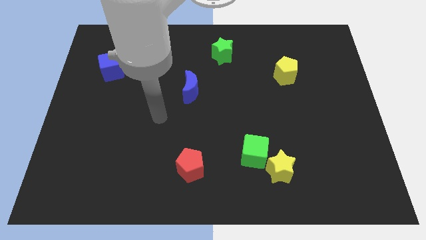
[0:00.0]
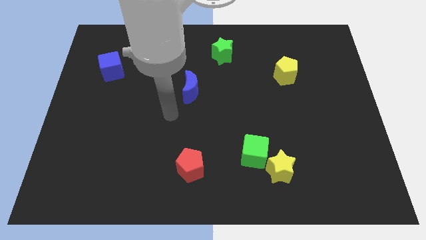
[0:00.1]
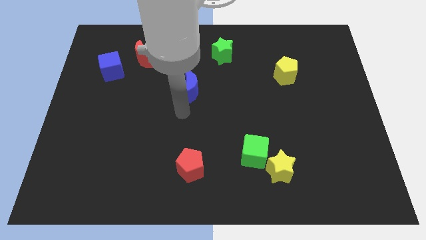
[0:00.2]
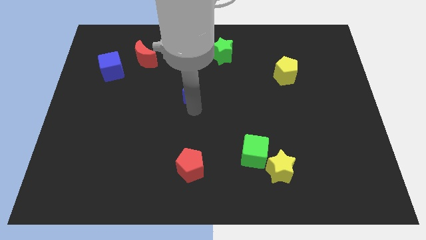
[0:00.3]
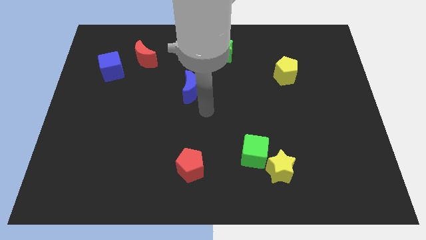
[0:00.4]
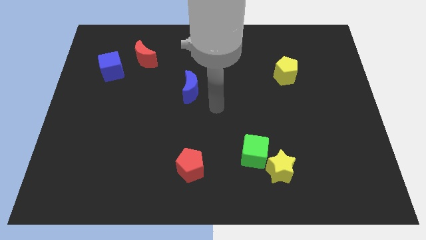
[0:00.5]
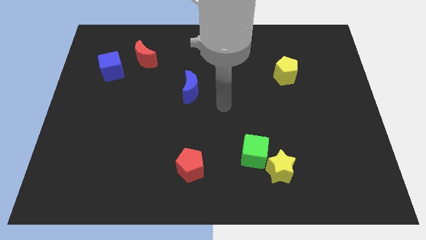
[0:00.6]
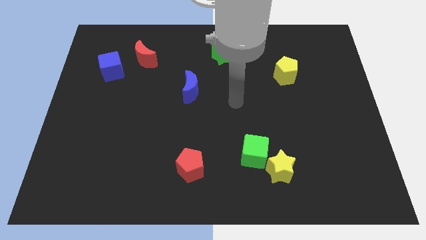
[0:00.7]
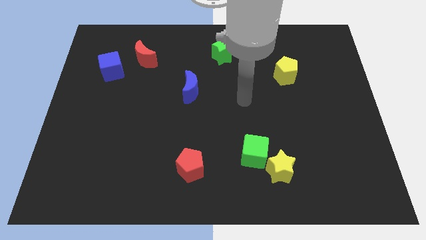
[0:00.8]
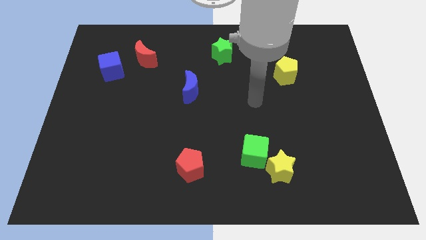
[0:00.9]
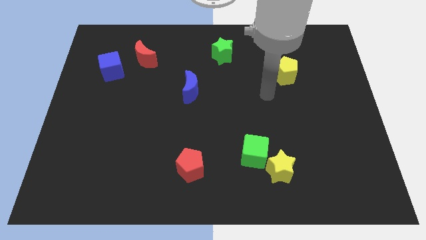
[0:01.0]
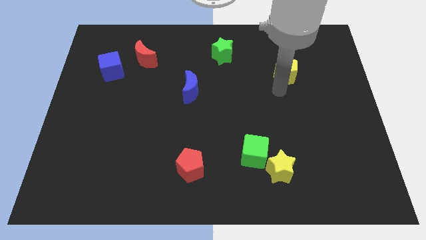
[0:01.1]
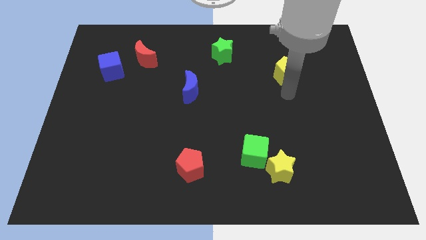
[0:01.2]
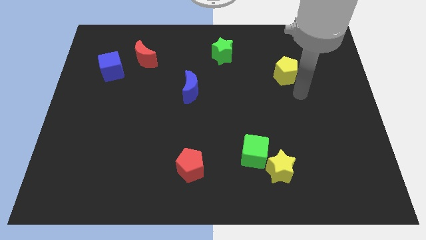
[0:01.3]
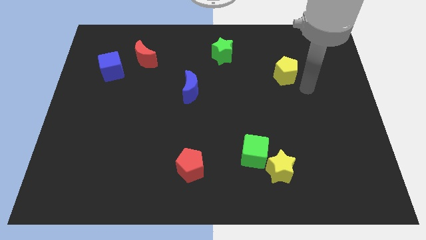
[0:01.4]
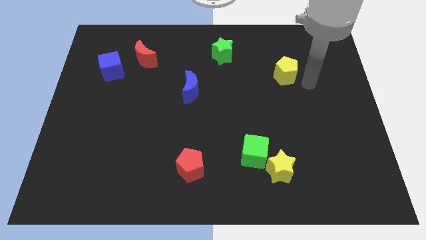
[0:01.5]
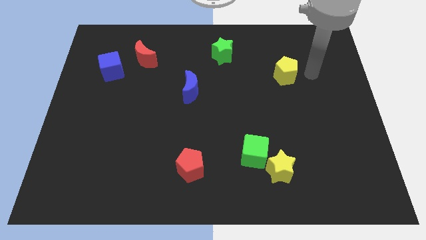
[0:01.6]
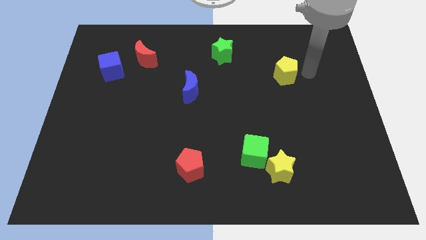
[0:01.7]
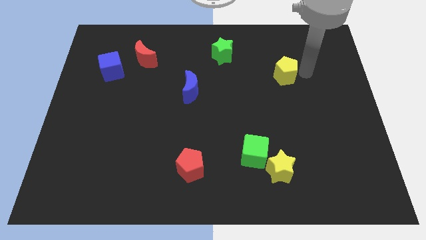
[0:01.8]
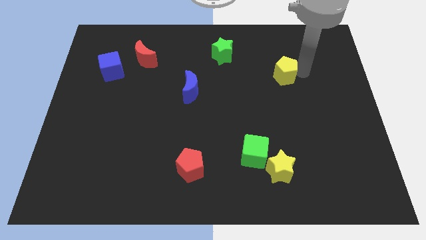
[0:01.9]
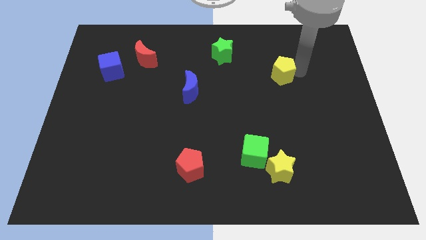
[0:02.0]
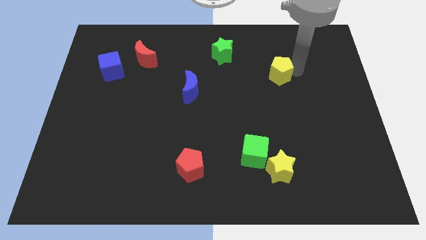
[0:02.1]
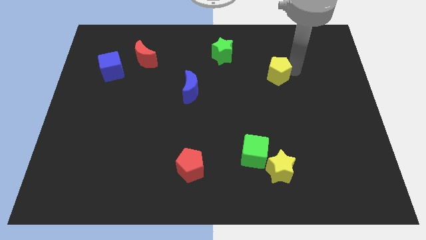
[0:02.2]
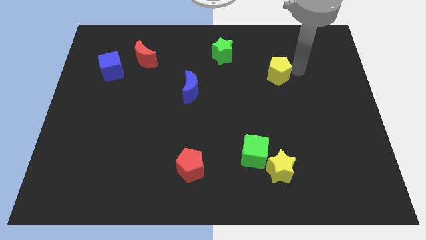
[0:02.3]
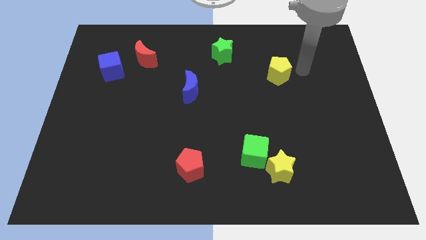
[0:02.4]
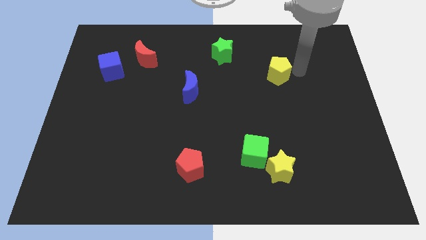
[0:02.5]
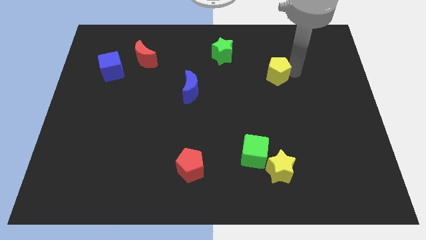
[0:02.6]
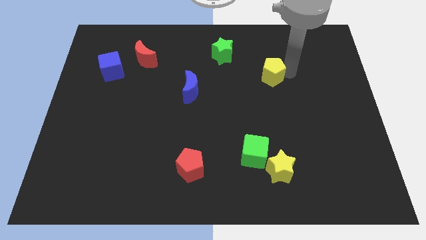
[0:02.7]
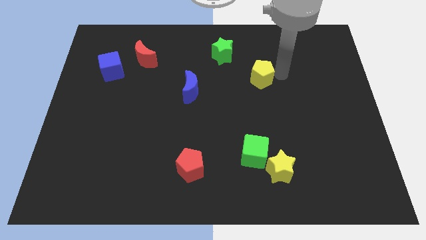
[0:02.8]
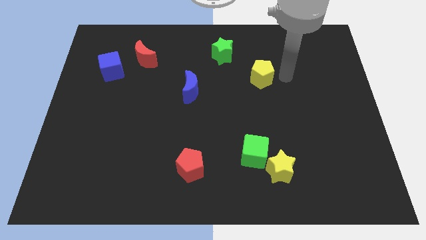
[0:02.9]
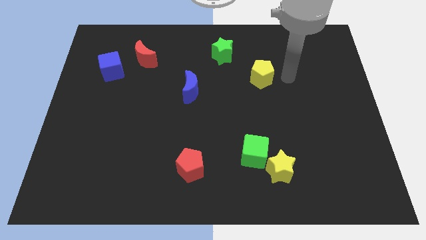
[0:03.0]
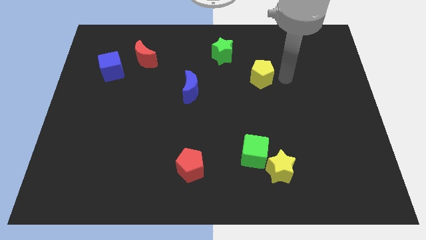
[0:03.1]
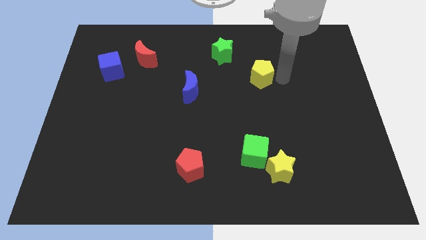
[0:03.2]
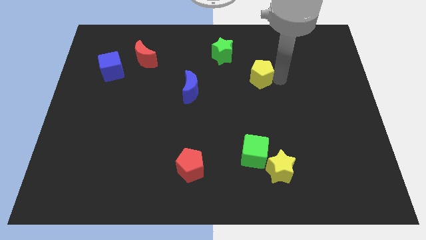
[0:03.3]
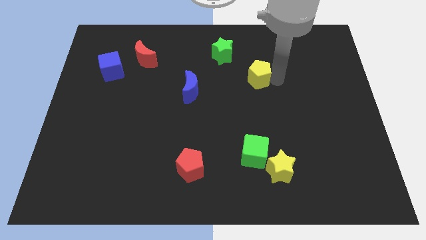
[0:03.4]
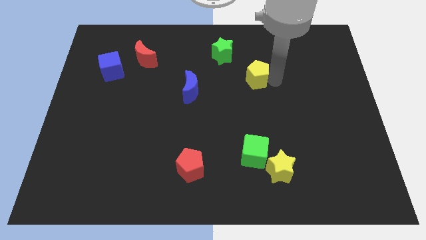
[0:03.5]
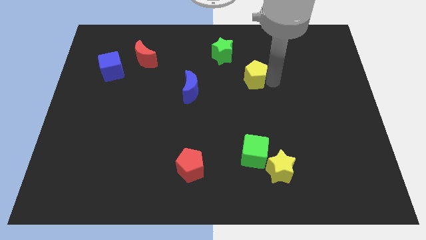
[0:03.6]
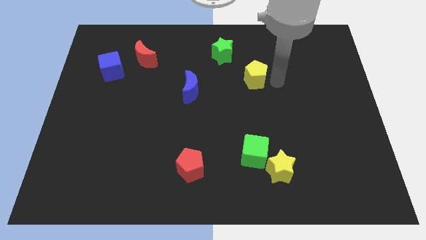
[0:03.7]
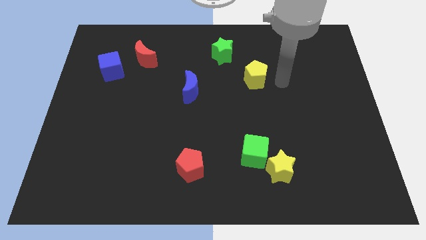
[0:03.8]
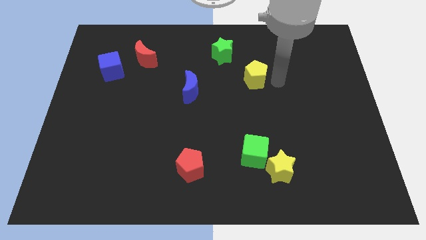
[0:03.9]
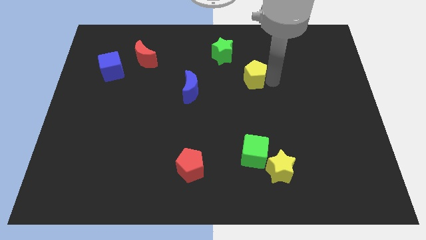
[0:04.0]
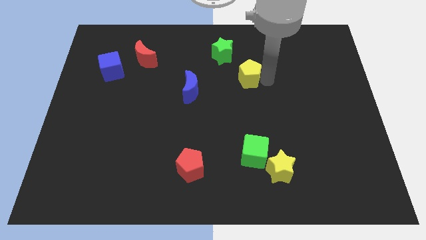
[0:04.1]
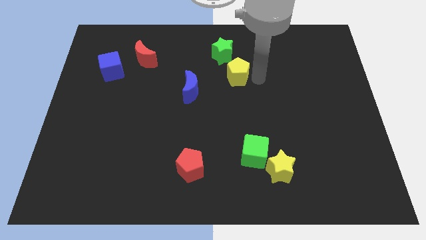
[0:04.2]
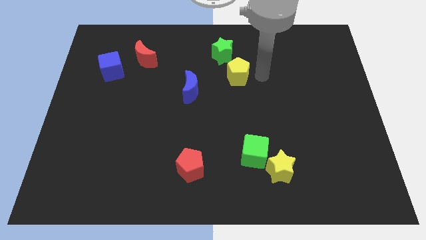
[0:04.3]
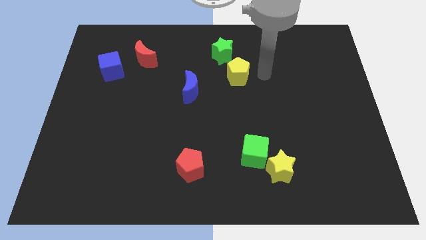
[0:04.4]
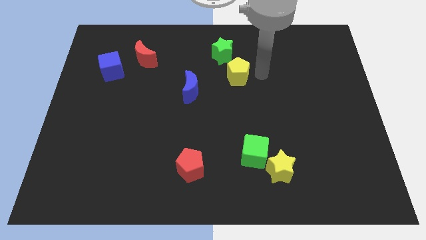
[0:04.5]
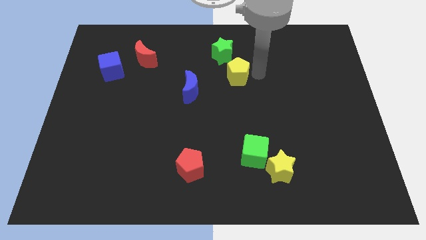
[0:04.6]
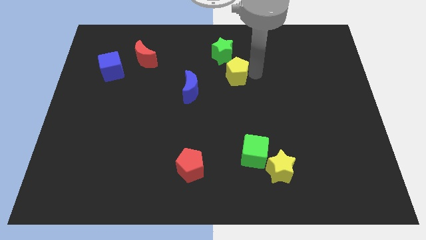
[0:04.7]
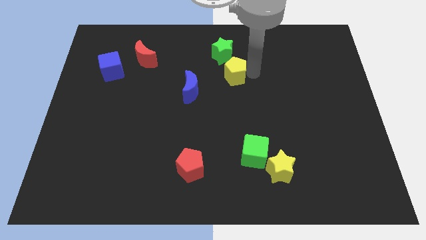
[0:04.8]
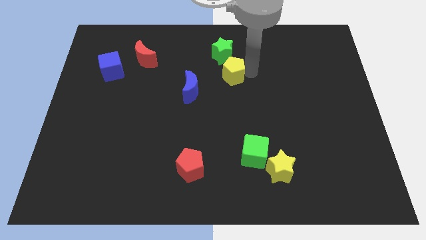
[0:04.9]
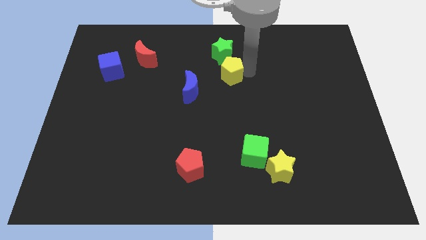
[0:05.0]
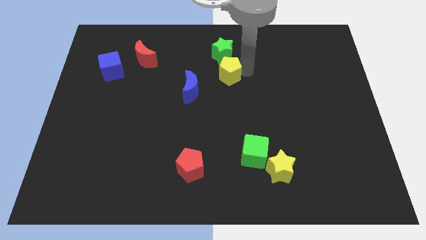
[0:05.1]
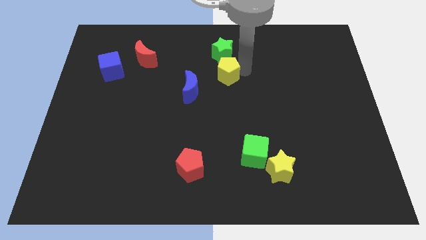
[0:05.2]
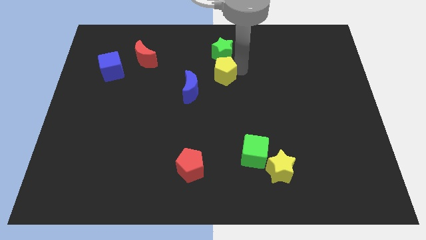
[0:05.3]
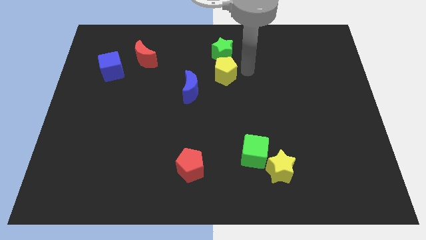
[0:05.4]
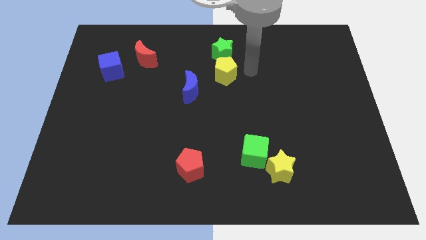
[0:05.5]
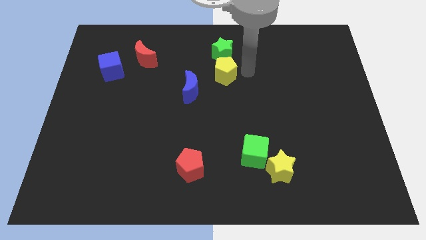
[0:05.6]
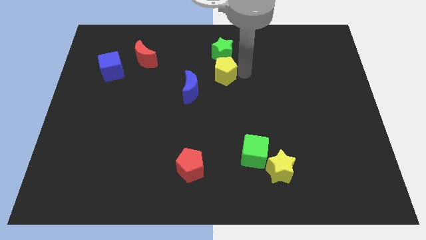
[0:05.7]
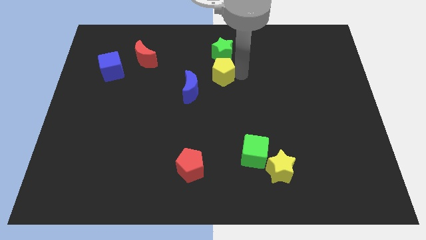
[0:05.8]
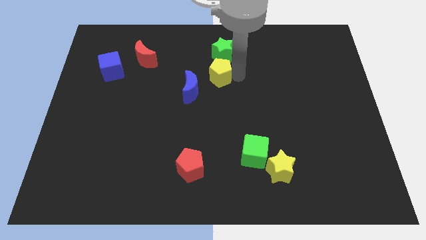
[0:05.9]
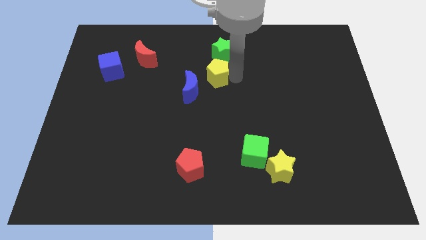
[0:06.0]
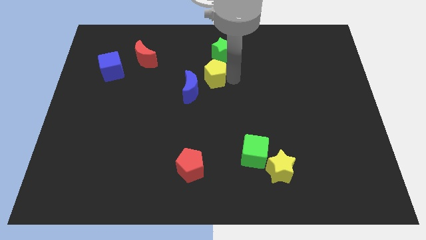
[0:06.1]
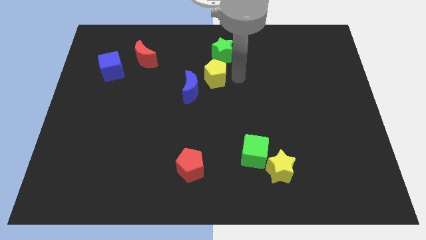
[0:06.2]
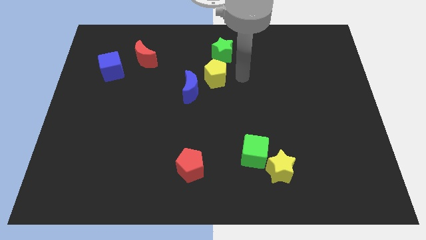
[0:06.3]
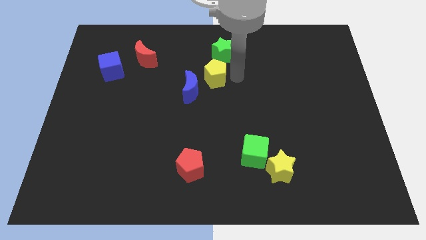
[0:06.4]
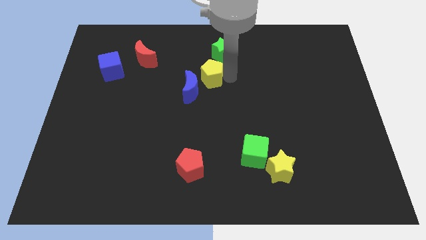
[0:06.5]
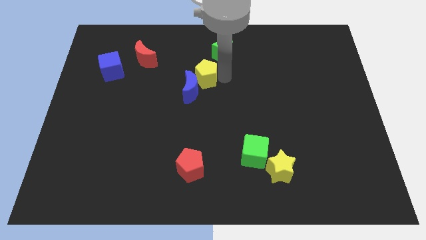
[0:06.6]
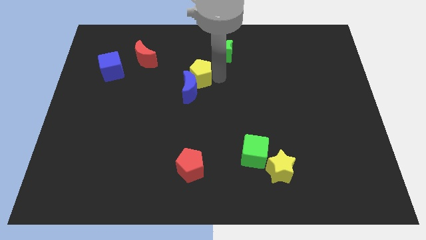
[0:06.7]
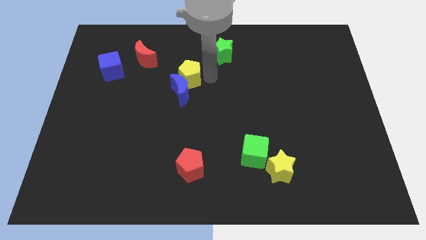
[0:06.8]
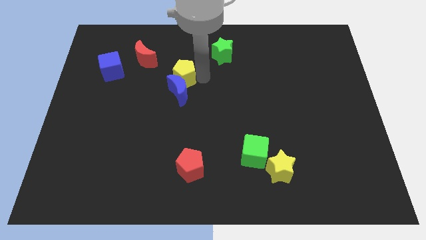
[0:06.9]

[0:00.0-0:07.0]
move the yellow pentagon to the top left side of the blue moon
